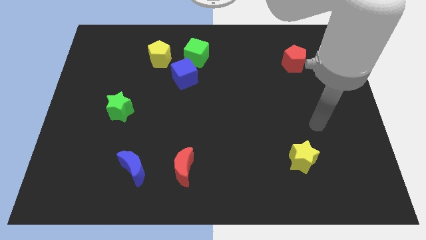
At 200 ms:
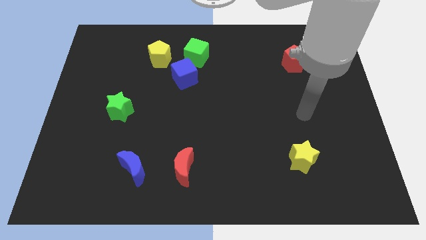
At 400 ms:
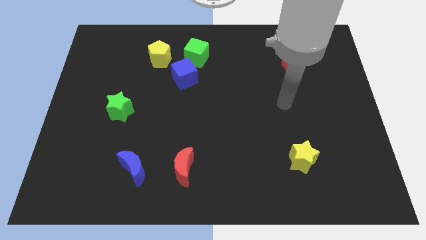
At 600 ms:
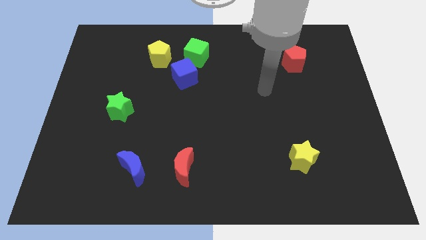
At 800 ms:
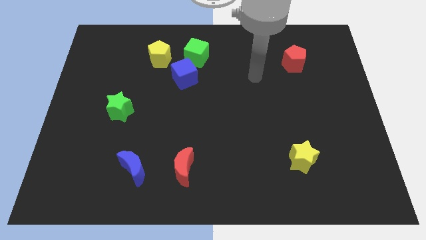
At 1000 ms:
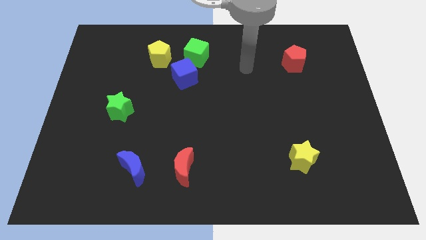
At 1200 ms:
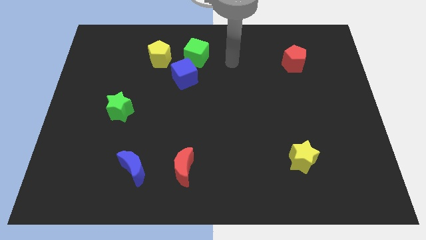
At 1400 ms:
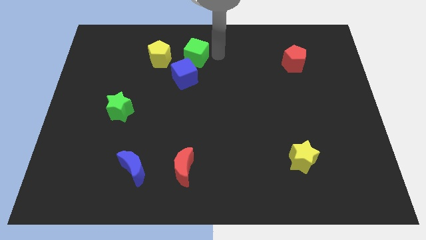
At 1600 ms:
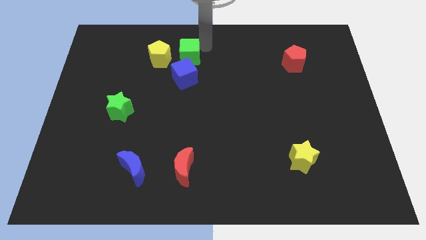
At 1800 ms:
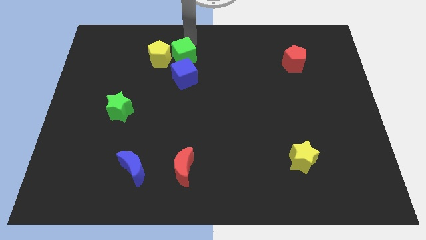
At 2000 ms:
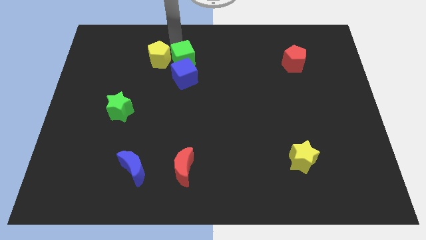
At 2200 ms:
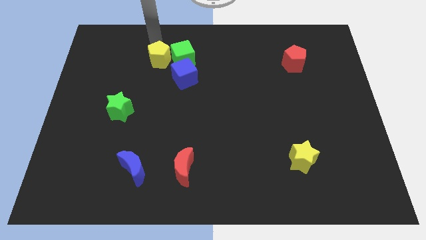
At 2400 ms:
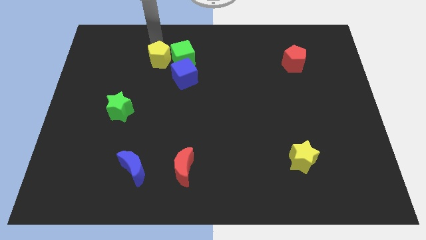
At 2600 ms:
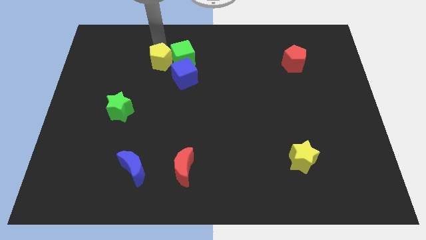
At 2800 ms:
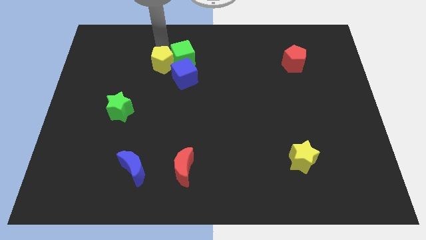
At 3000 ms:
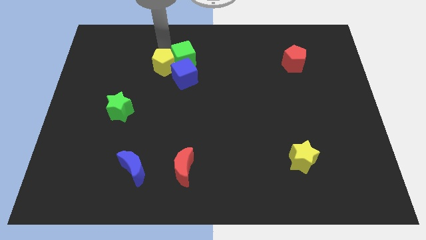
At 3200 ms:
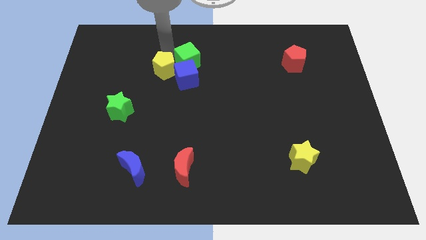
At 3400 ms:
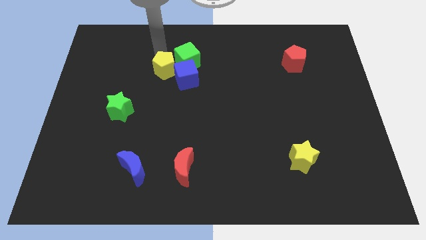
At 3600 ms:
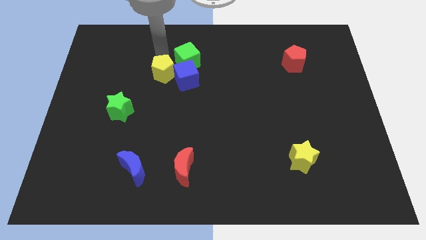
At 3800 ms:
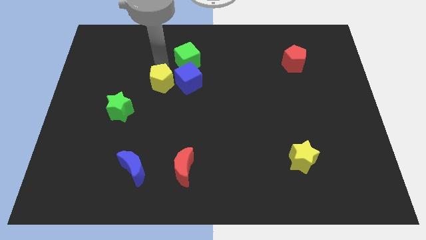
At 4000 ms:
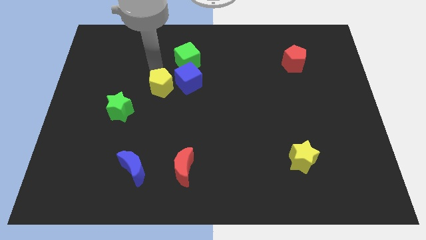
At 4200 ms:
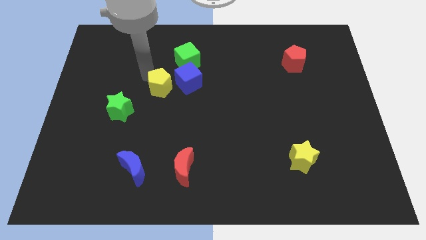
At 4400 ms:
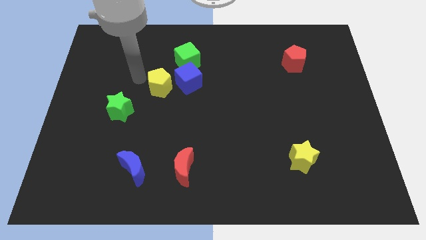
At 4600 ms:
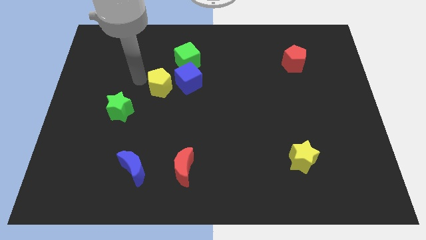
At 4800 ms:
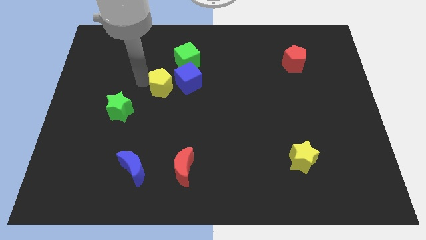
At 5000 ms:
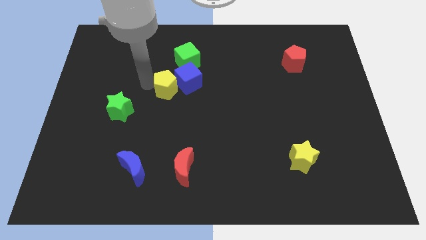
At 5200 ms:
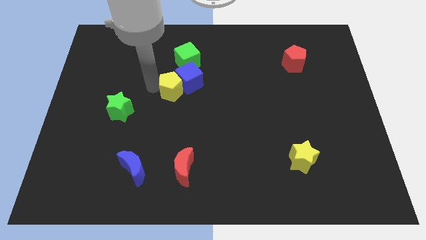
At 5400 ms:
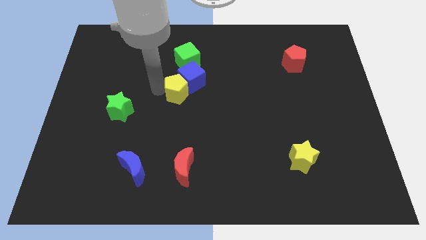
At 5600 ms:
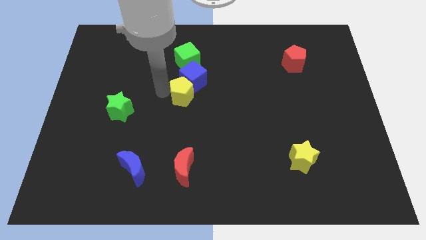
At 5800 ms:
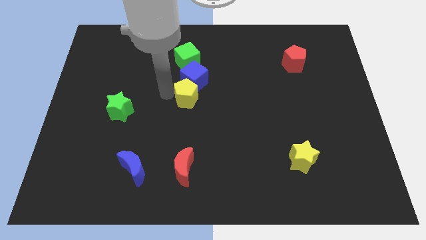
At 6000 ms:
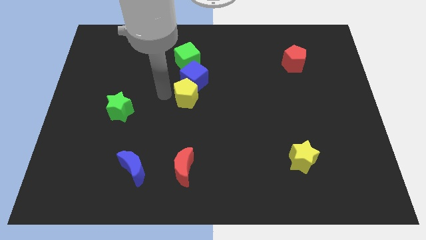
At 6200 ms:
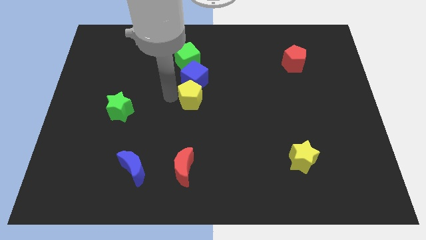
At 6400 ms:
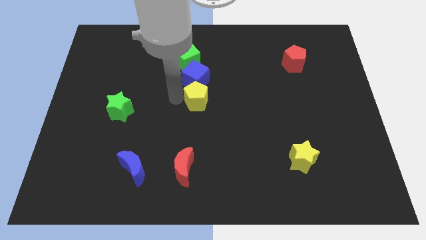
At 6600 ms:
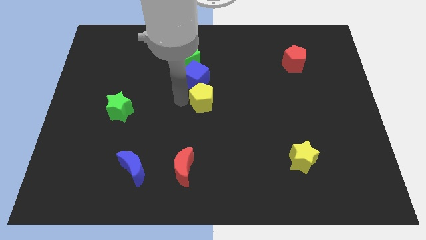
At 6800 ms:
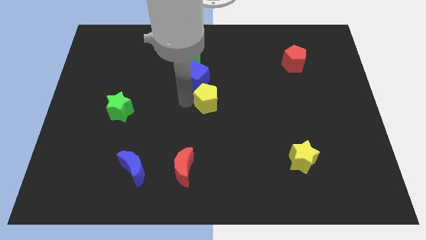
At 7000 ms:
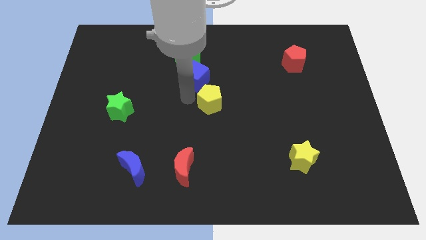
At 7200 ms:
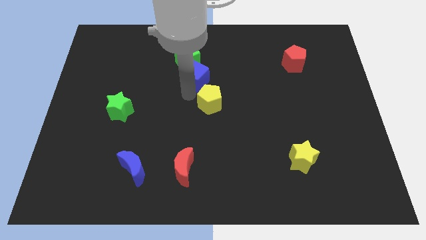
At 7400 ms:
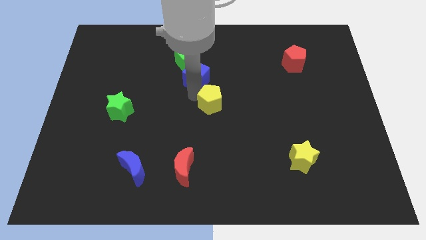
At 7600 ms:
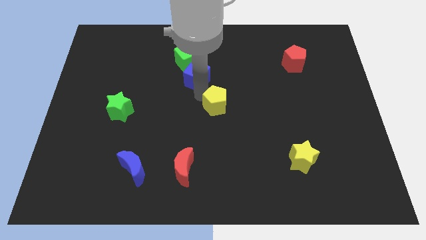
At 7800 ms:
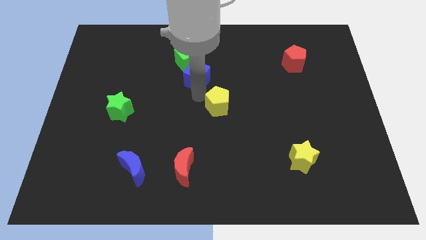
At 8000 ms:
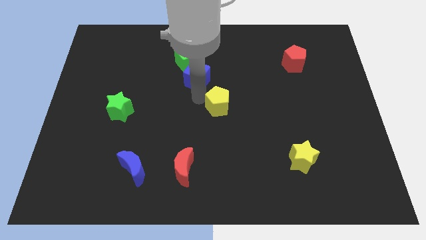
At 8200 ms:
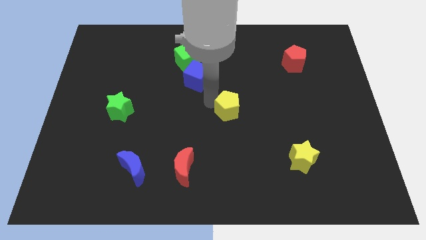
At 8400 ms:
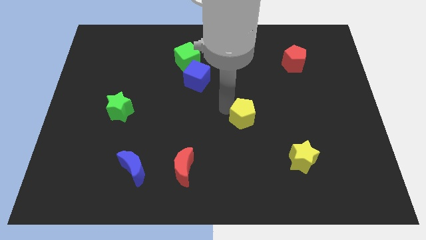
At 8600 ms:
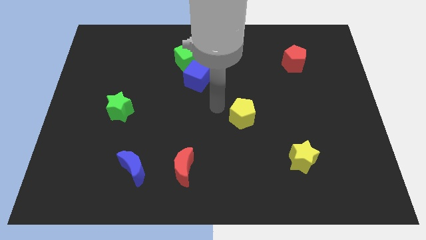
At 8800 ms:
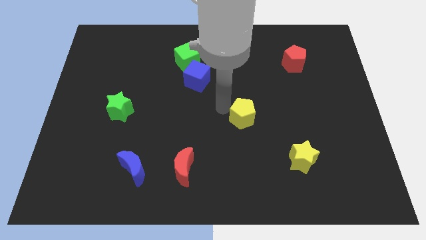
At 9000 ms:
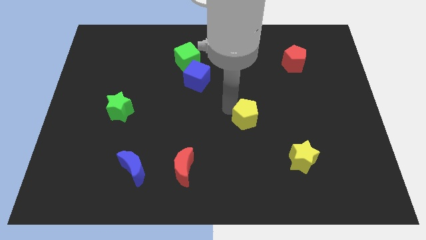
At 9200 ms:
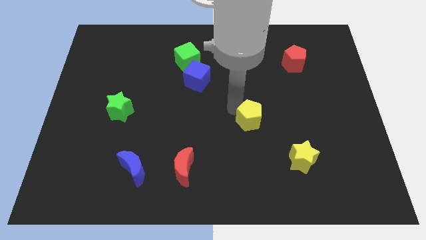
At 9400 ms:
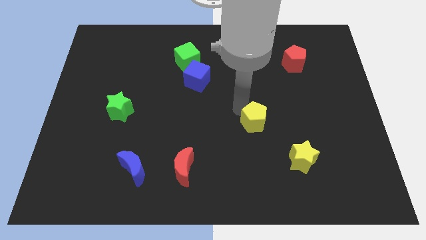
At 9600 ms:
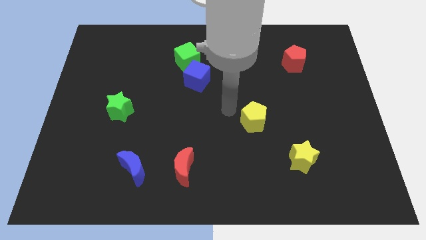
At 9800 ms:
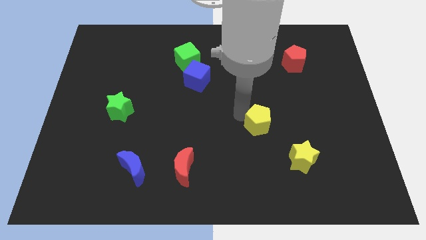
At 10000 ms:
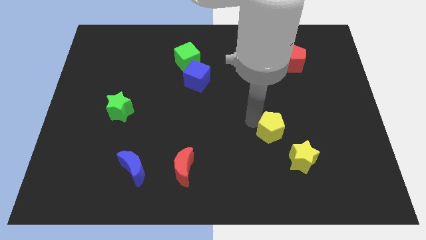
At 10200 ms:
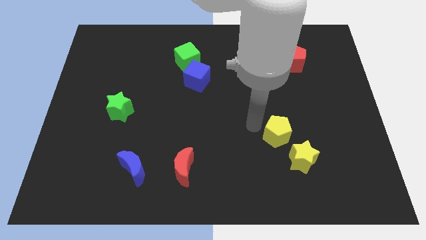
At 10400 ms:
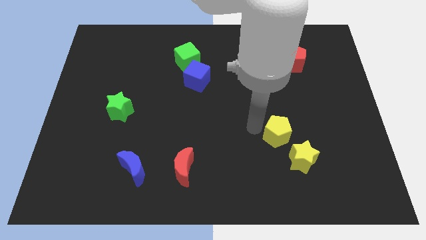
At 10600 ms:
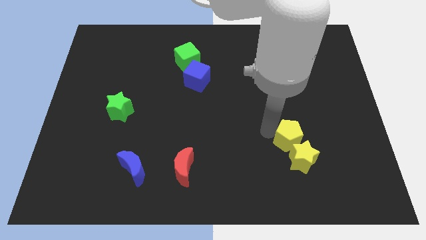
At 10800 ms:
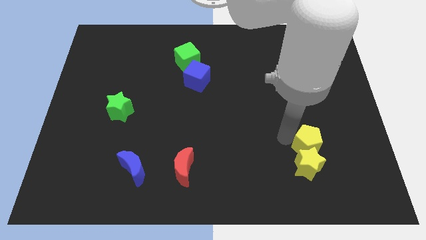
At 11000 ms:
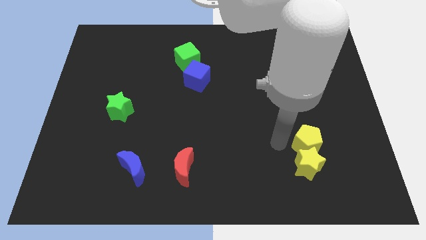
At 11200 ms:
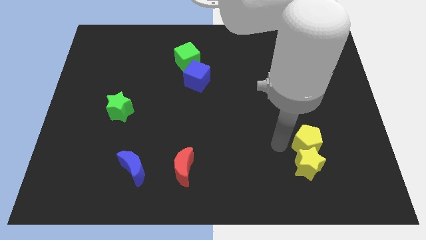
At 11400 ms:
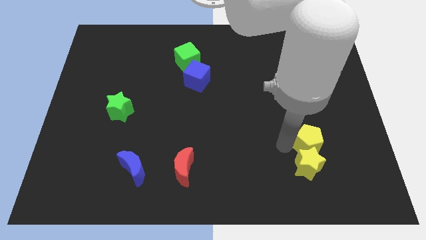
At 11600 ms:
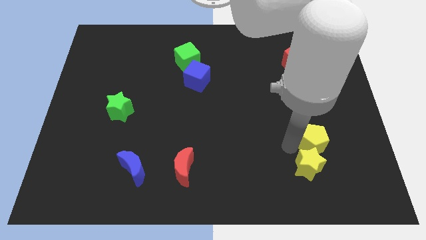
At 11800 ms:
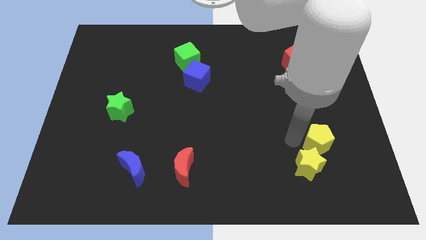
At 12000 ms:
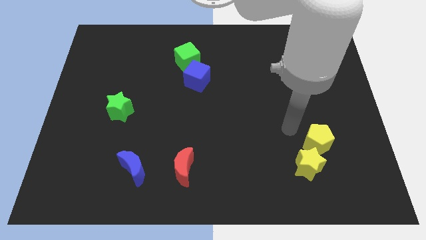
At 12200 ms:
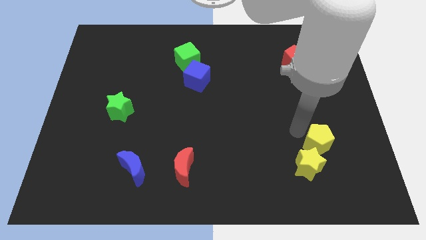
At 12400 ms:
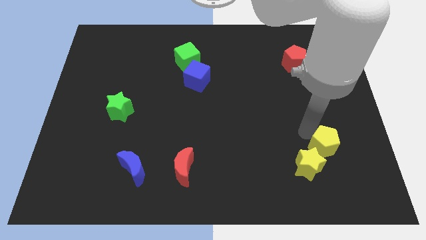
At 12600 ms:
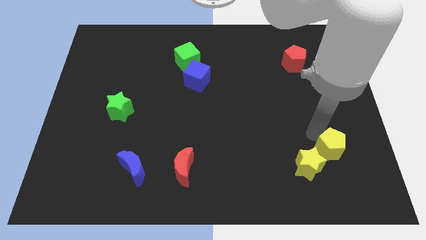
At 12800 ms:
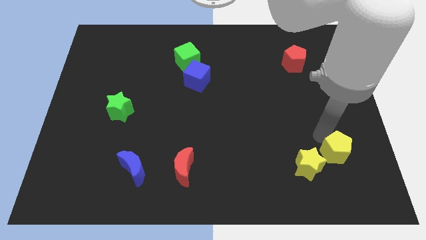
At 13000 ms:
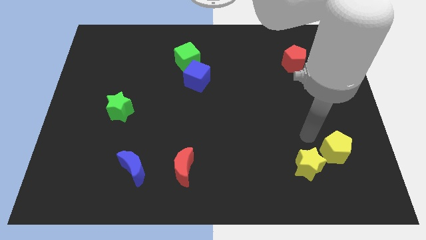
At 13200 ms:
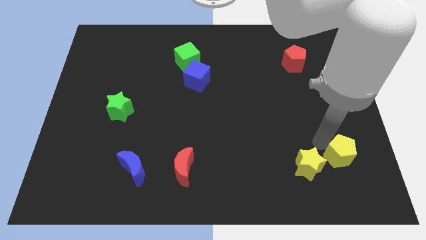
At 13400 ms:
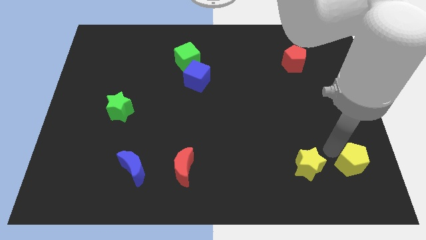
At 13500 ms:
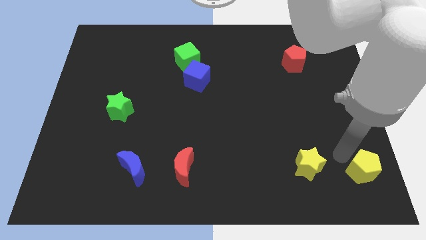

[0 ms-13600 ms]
put the yellow pentagon to the bottom right of the board
